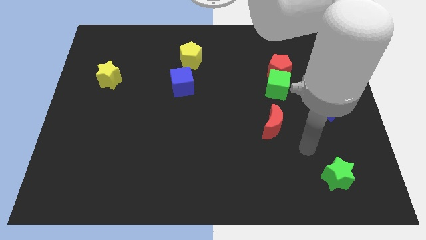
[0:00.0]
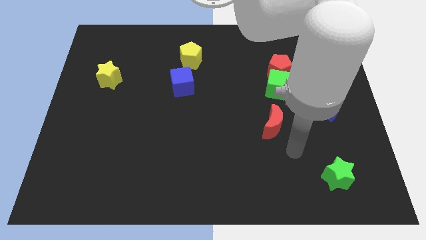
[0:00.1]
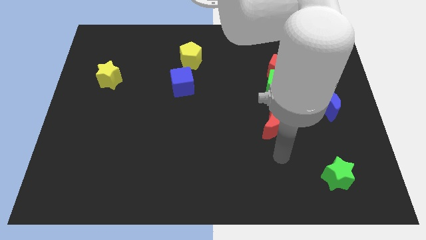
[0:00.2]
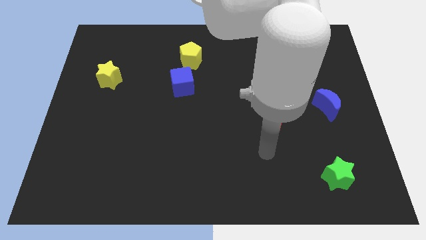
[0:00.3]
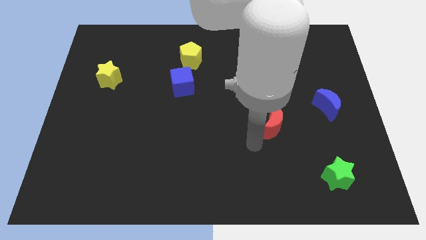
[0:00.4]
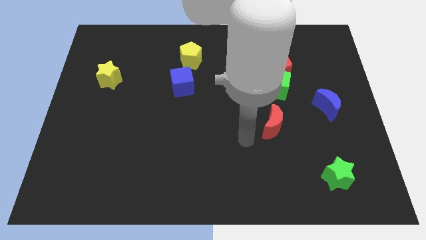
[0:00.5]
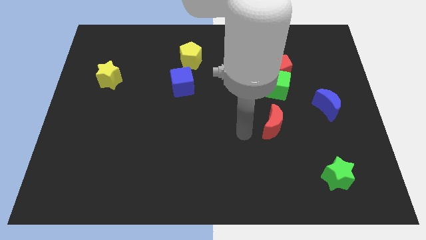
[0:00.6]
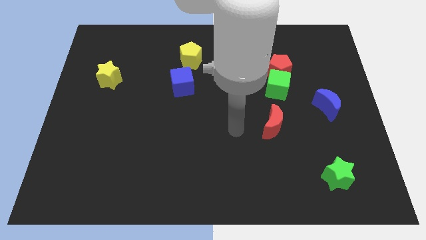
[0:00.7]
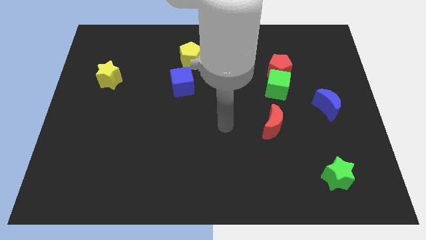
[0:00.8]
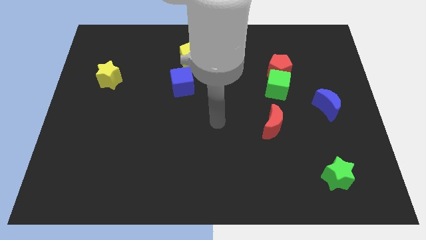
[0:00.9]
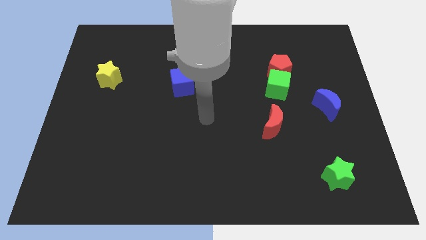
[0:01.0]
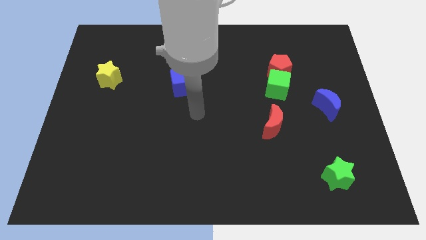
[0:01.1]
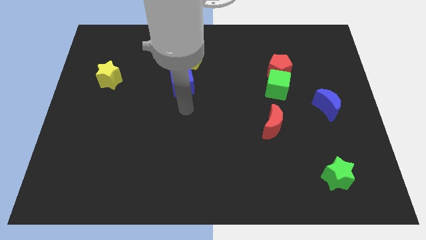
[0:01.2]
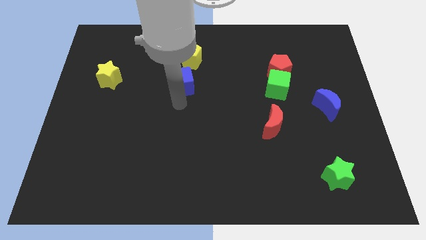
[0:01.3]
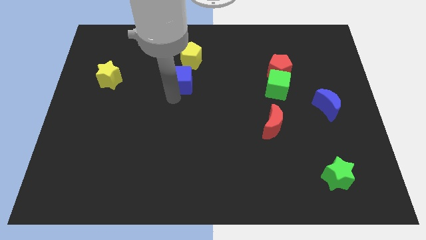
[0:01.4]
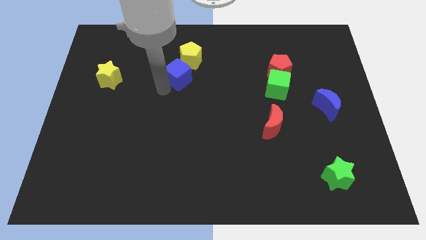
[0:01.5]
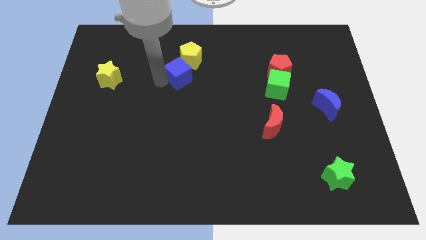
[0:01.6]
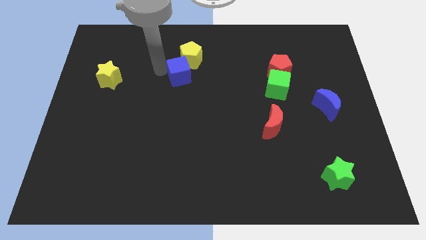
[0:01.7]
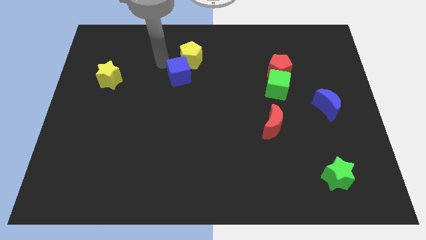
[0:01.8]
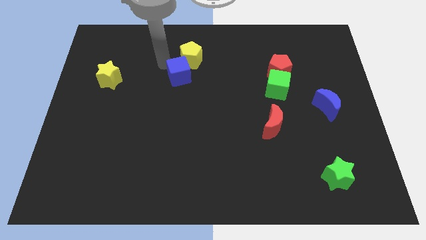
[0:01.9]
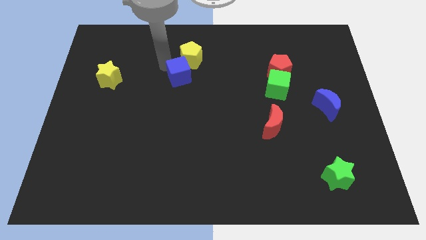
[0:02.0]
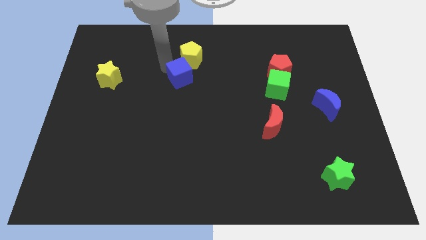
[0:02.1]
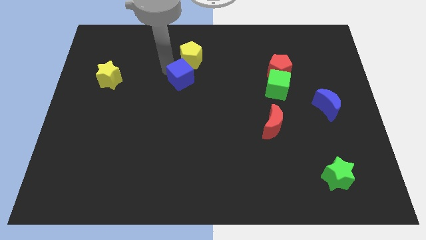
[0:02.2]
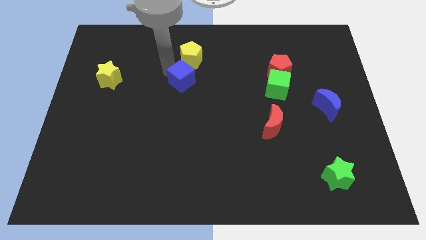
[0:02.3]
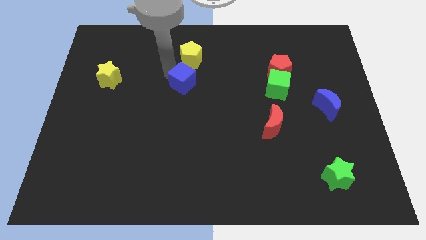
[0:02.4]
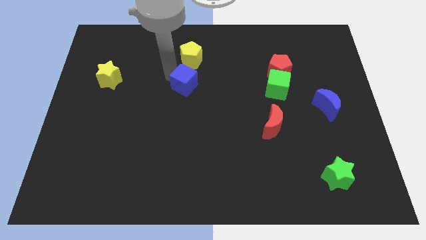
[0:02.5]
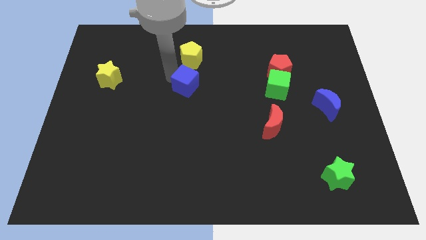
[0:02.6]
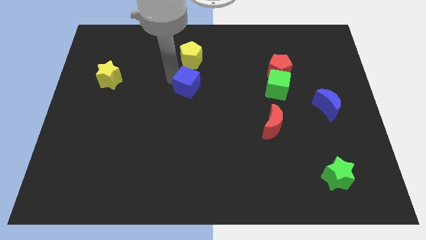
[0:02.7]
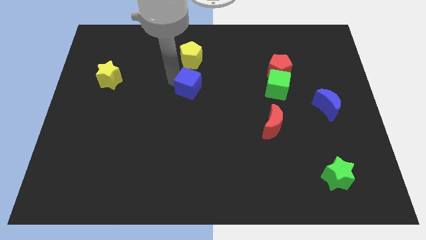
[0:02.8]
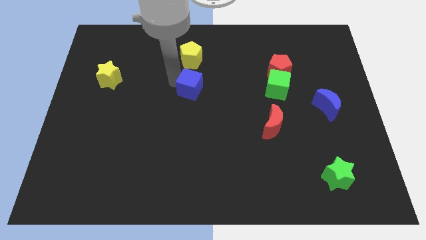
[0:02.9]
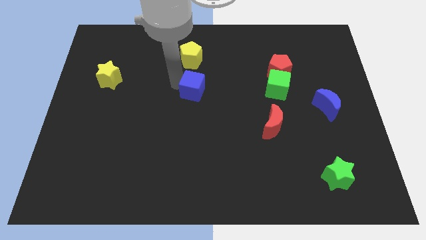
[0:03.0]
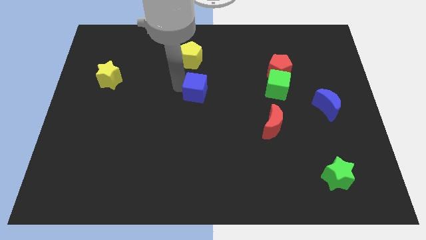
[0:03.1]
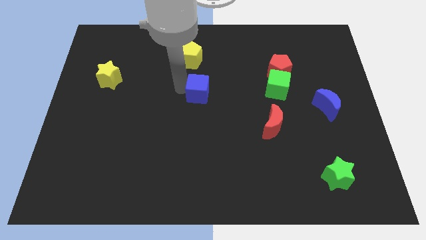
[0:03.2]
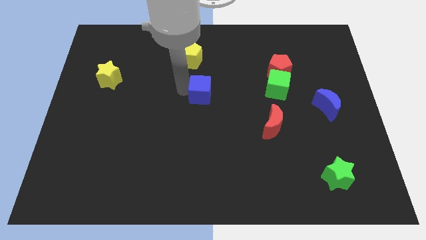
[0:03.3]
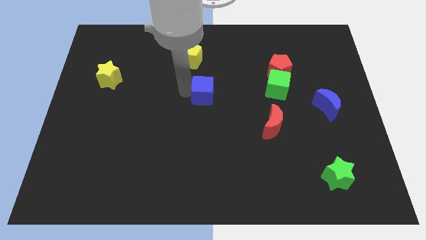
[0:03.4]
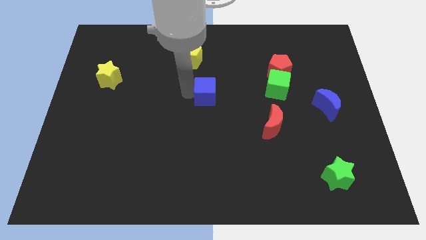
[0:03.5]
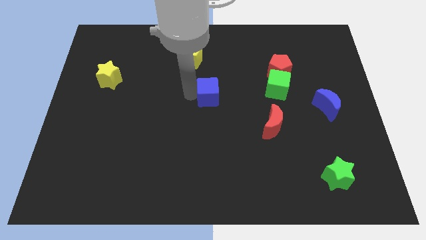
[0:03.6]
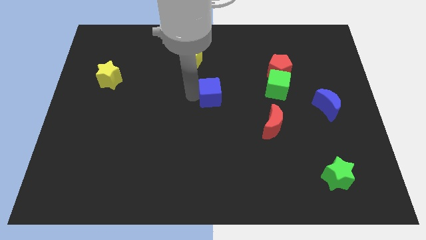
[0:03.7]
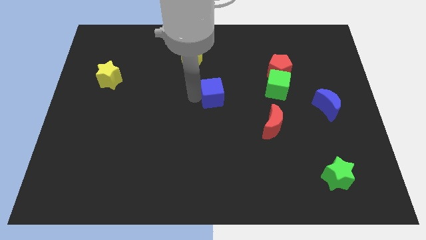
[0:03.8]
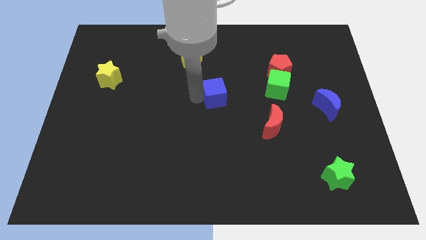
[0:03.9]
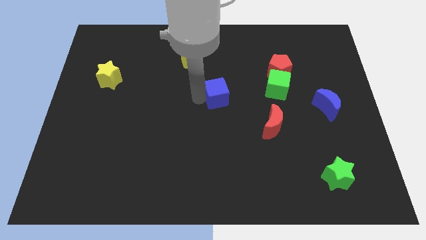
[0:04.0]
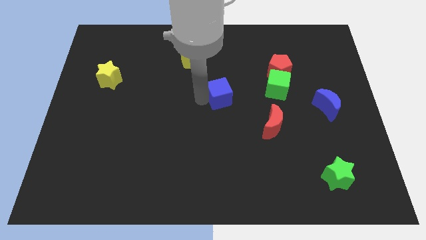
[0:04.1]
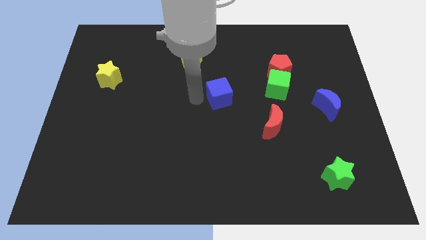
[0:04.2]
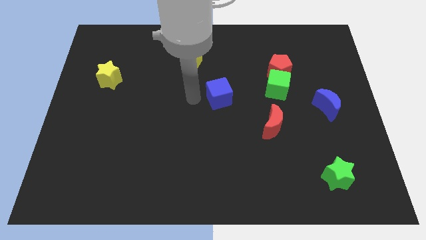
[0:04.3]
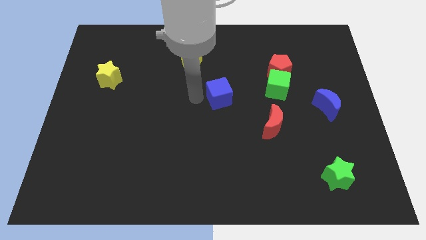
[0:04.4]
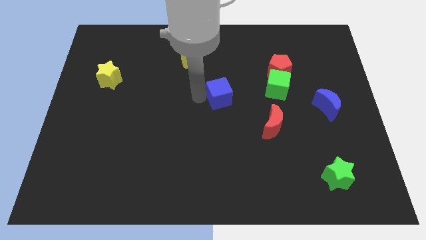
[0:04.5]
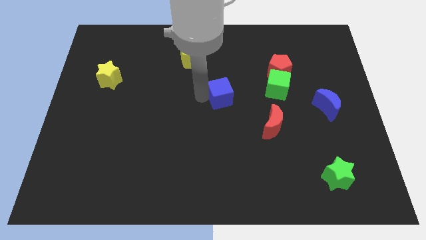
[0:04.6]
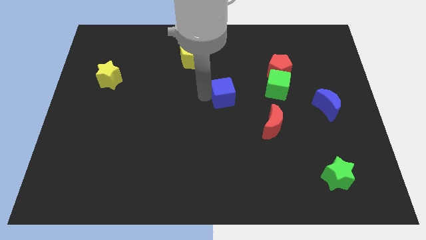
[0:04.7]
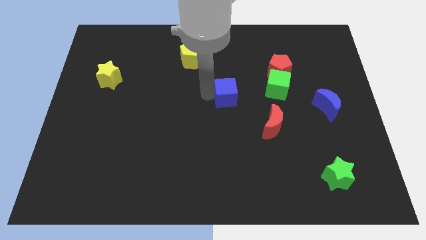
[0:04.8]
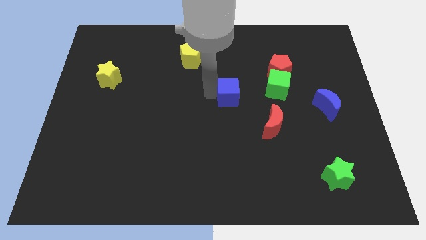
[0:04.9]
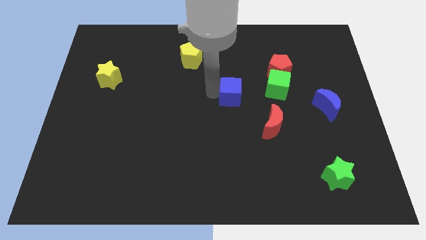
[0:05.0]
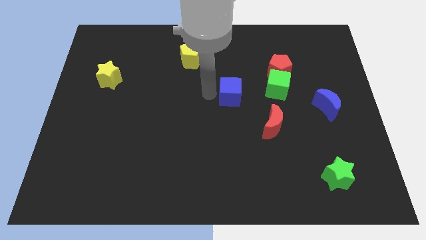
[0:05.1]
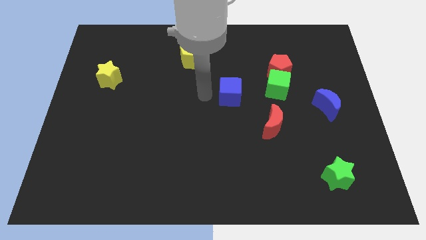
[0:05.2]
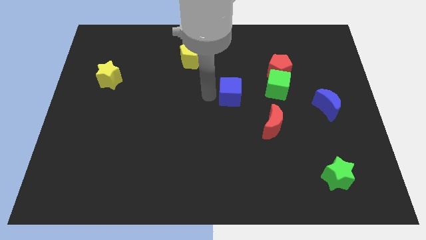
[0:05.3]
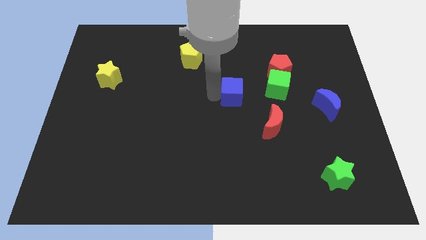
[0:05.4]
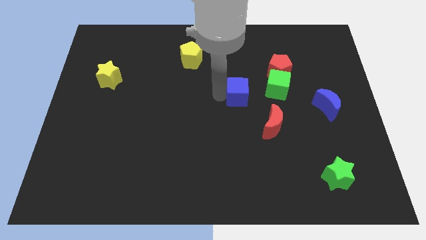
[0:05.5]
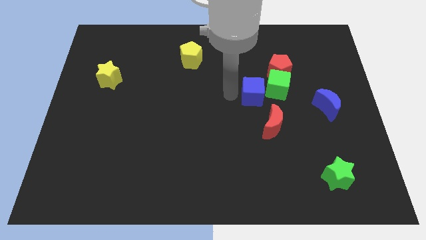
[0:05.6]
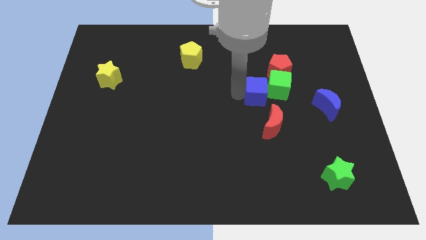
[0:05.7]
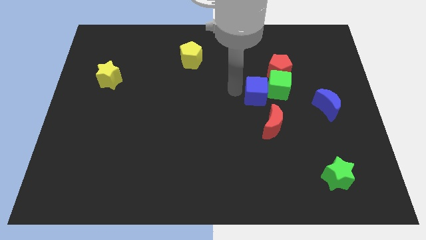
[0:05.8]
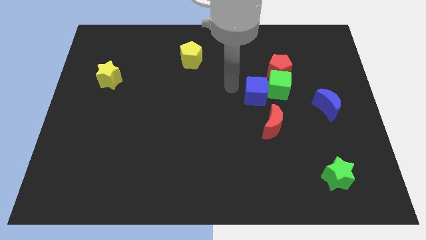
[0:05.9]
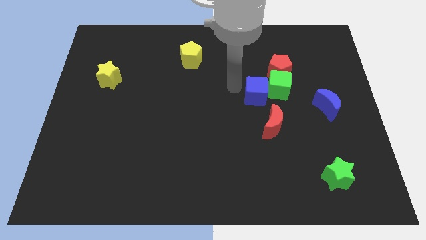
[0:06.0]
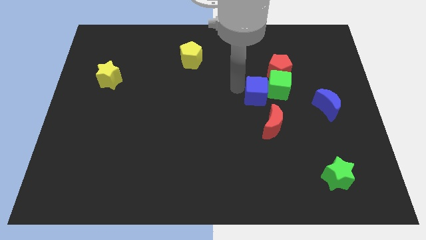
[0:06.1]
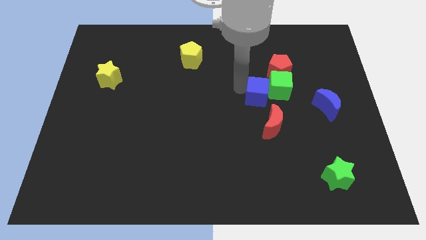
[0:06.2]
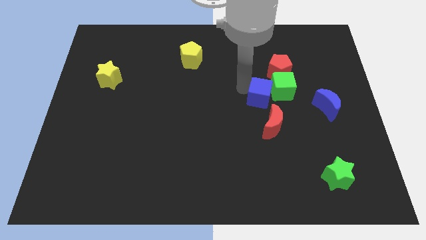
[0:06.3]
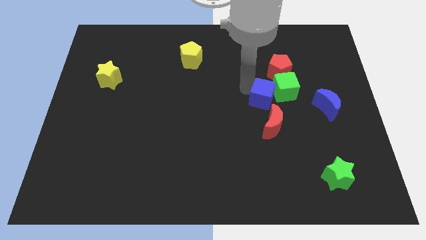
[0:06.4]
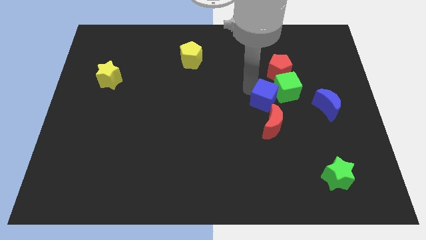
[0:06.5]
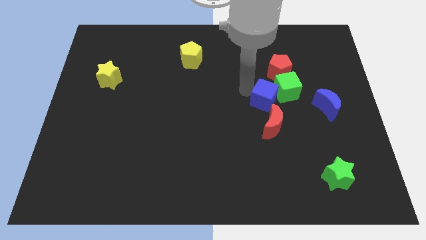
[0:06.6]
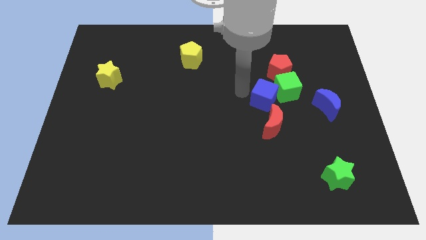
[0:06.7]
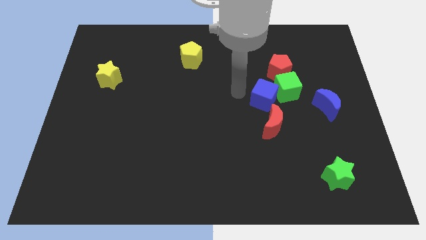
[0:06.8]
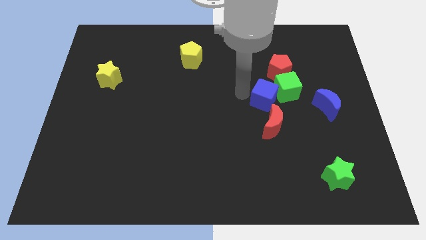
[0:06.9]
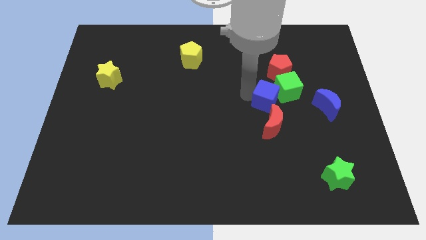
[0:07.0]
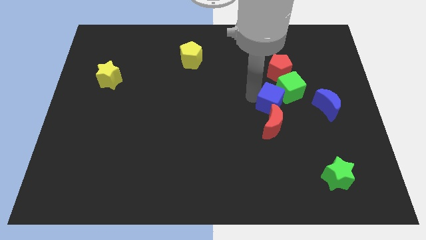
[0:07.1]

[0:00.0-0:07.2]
move the blue cube to the right

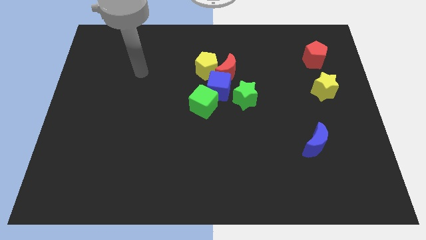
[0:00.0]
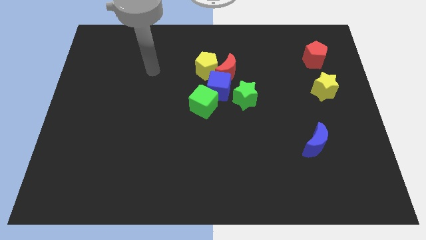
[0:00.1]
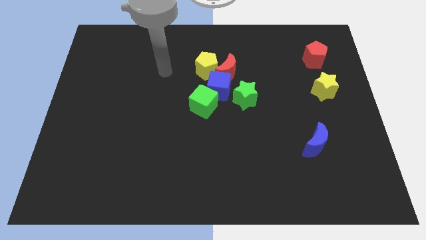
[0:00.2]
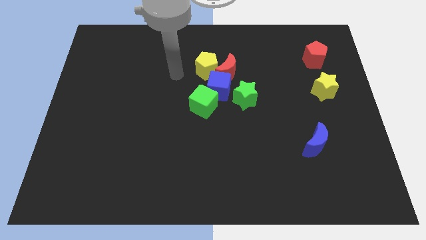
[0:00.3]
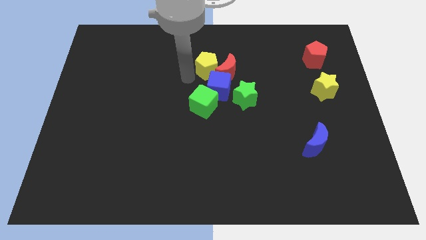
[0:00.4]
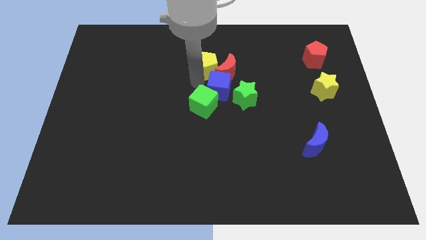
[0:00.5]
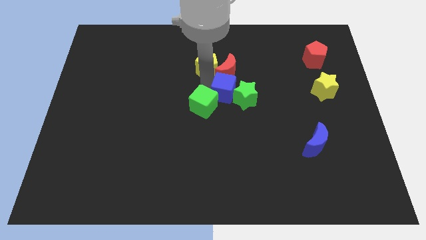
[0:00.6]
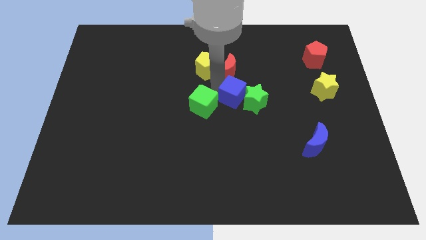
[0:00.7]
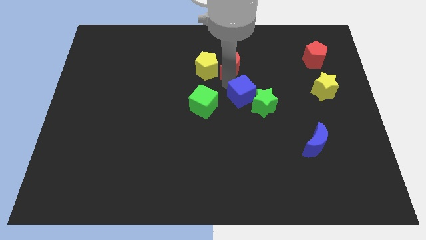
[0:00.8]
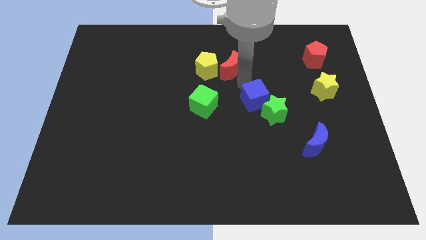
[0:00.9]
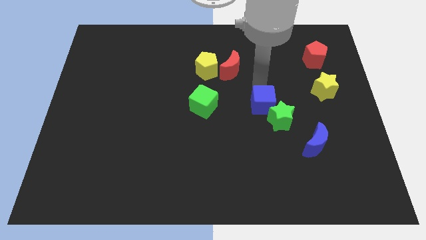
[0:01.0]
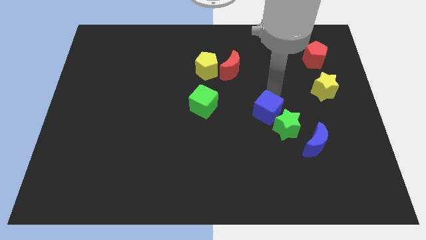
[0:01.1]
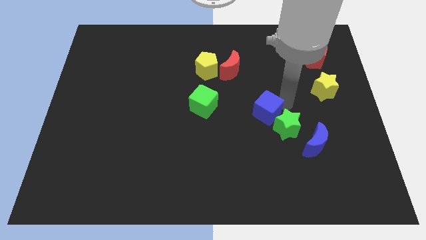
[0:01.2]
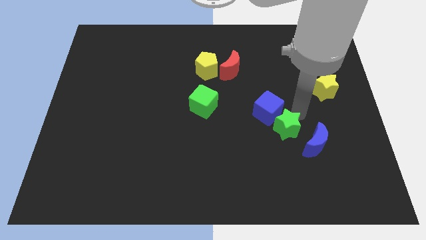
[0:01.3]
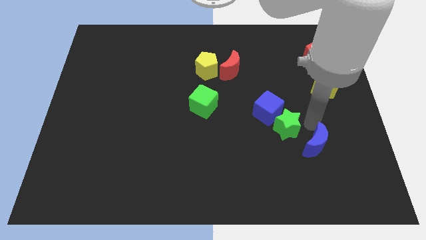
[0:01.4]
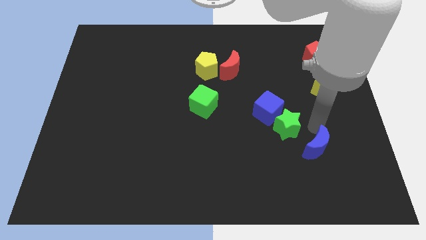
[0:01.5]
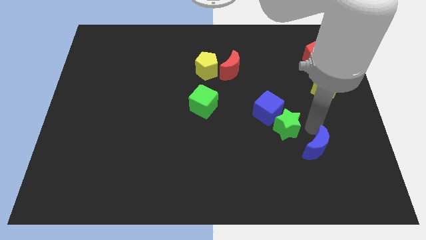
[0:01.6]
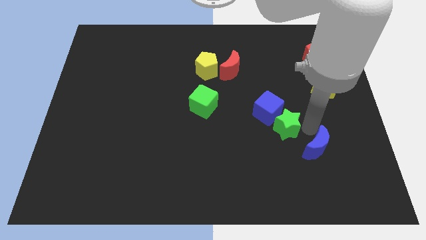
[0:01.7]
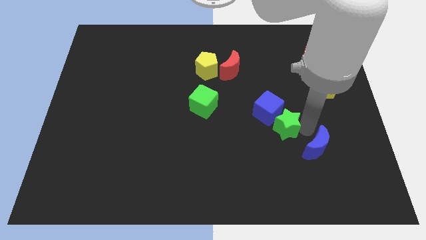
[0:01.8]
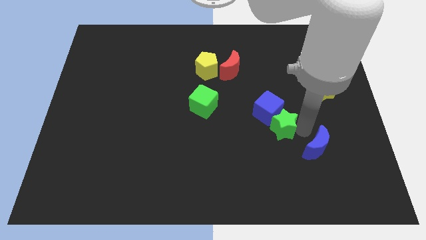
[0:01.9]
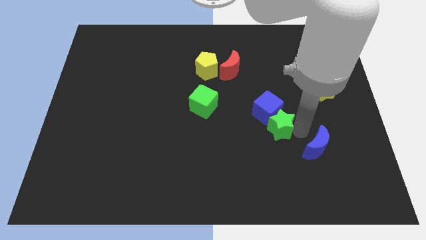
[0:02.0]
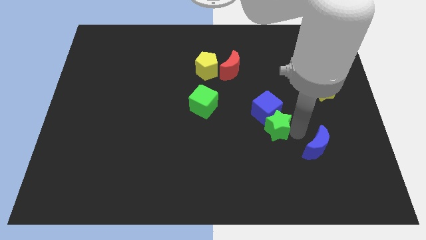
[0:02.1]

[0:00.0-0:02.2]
slide the green star downwards somewhat
